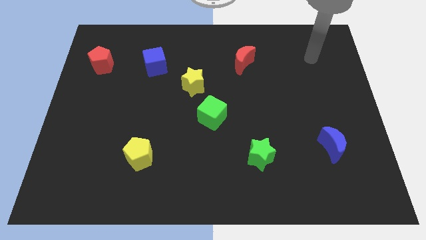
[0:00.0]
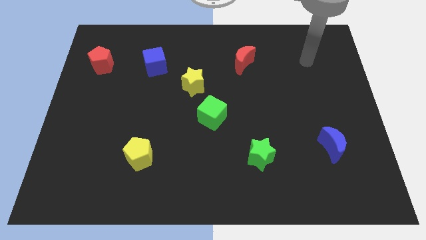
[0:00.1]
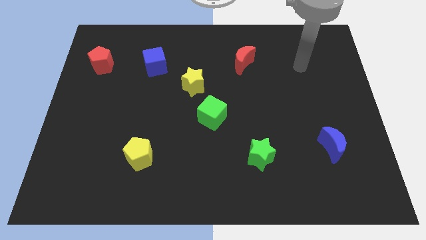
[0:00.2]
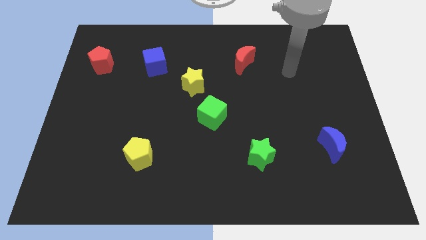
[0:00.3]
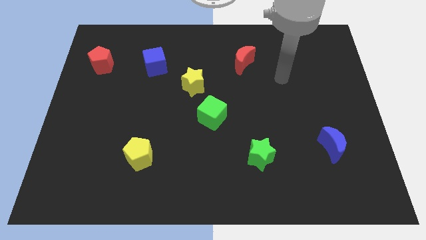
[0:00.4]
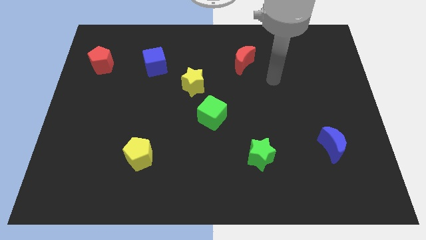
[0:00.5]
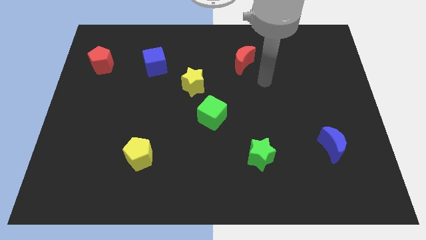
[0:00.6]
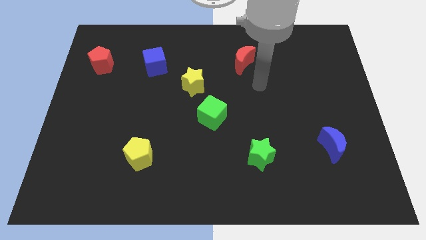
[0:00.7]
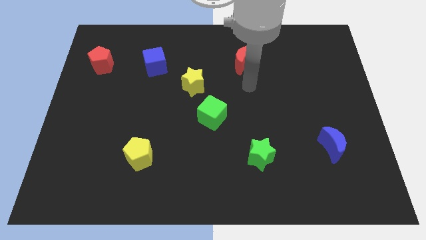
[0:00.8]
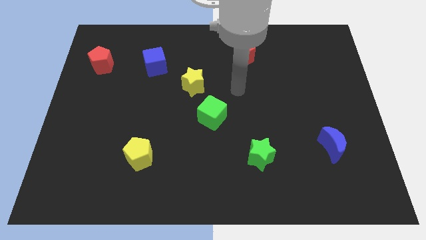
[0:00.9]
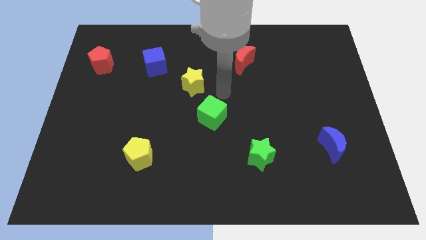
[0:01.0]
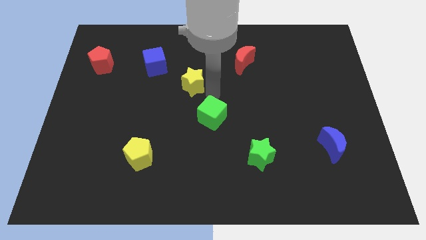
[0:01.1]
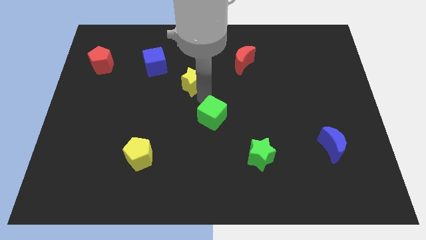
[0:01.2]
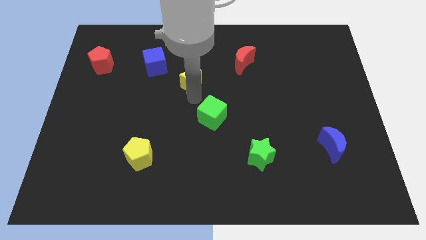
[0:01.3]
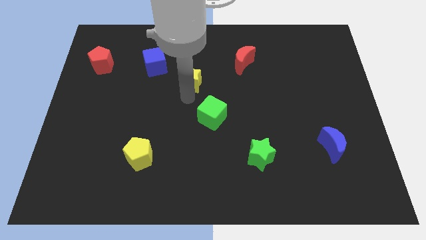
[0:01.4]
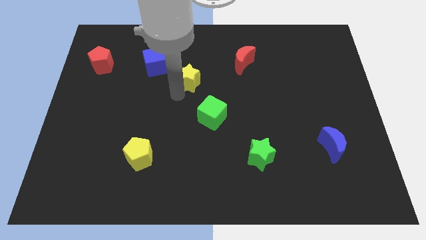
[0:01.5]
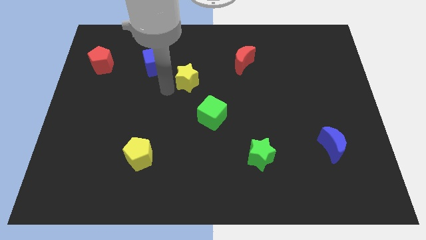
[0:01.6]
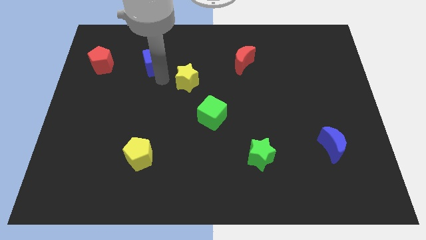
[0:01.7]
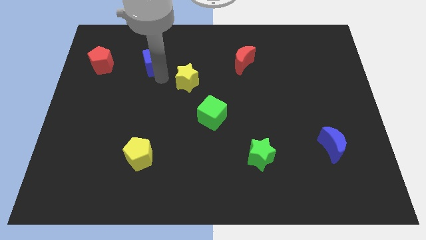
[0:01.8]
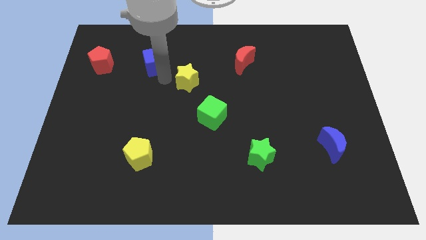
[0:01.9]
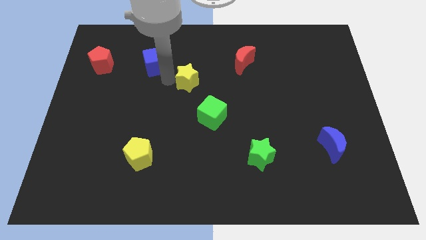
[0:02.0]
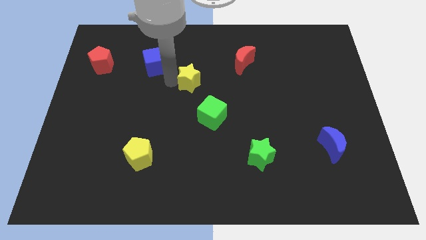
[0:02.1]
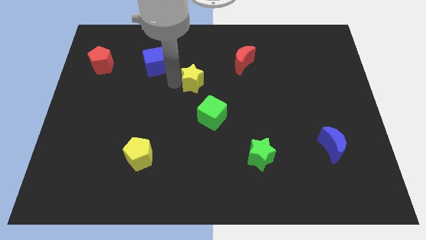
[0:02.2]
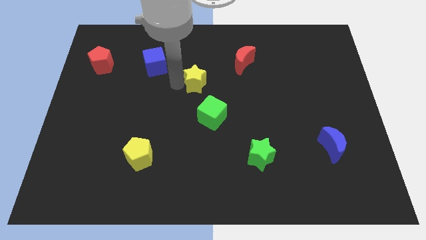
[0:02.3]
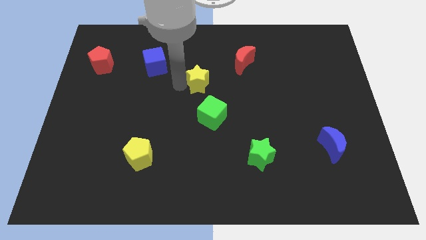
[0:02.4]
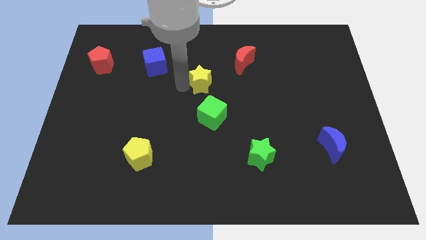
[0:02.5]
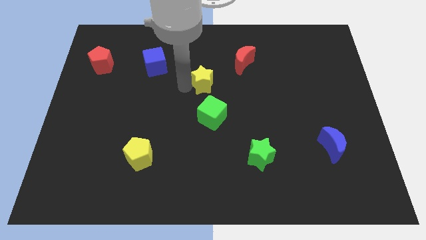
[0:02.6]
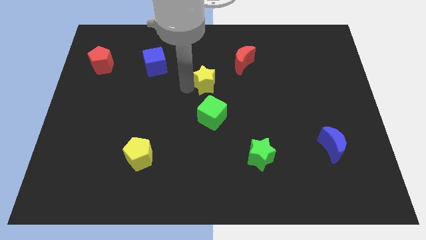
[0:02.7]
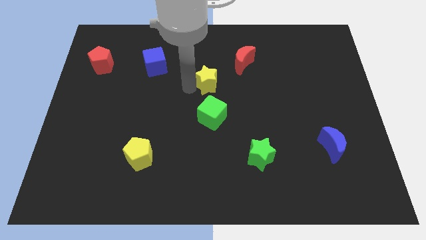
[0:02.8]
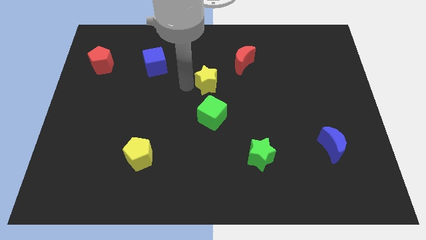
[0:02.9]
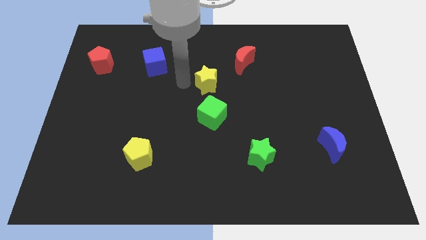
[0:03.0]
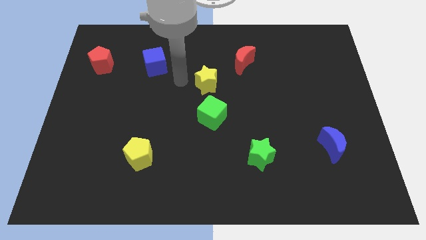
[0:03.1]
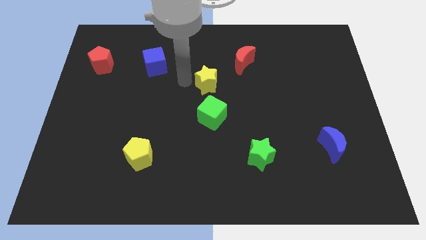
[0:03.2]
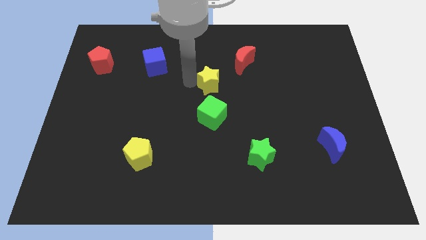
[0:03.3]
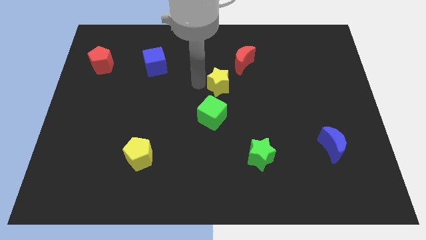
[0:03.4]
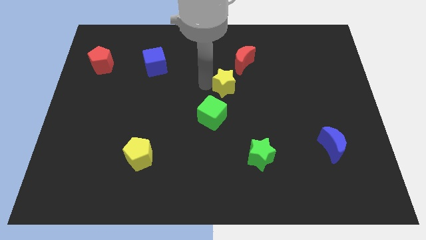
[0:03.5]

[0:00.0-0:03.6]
slide the yellow star a little right

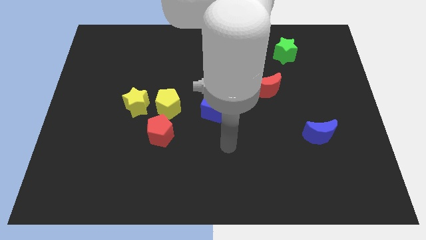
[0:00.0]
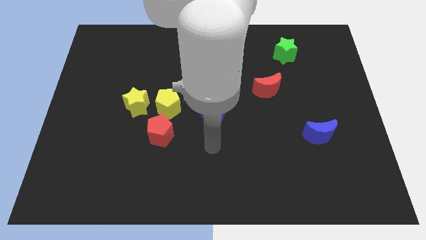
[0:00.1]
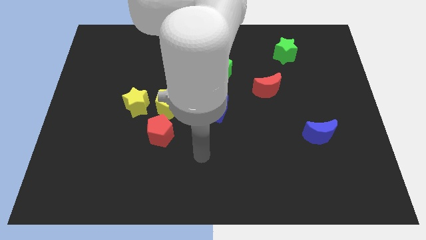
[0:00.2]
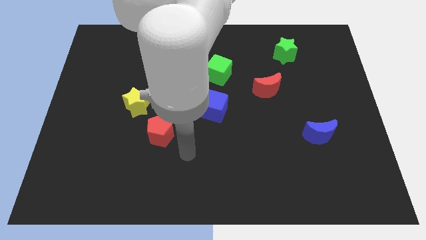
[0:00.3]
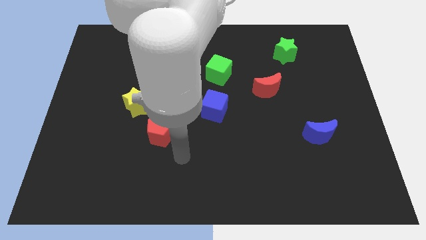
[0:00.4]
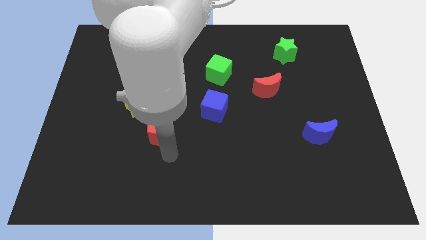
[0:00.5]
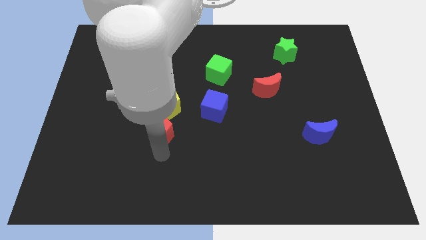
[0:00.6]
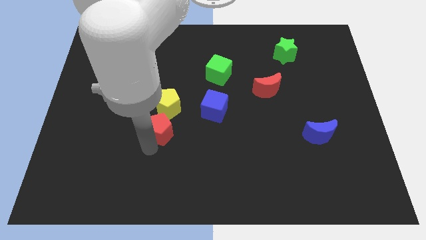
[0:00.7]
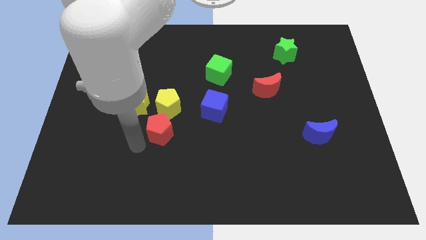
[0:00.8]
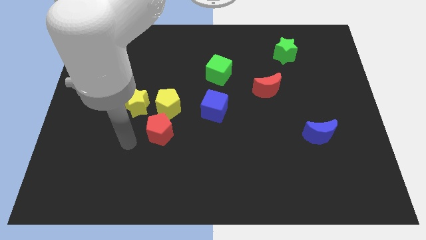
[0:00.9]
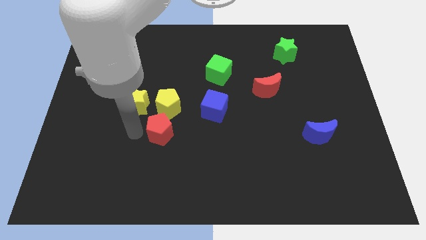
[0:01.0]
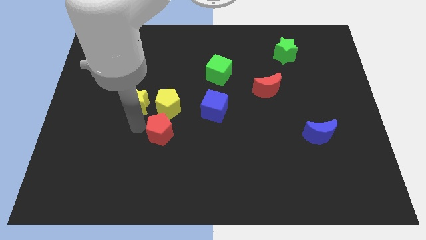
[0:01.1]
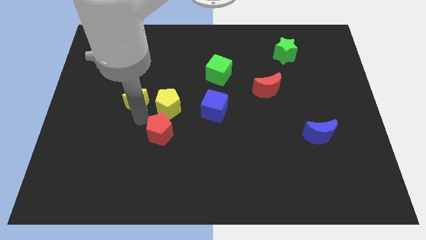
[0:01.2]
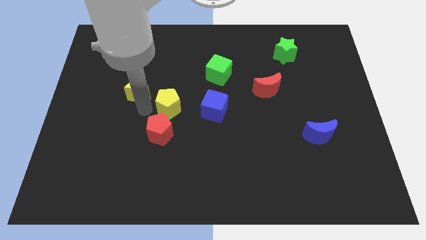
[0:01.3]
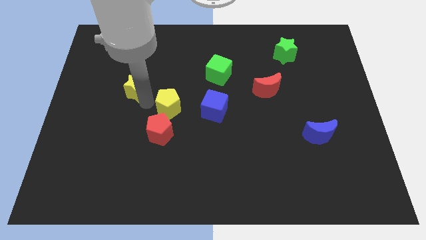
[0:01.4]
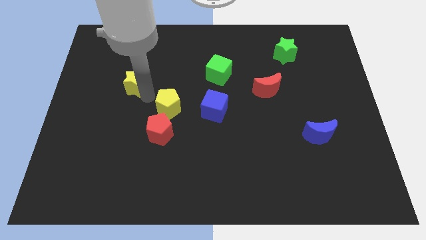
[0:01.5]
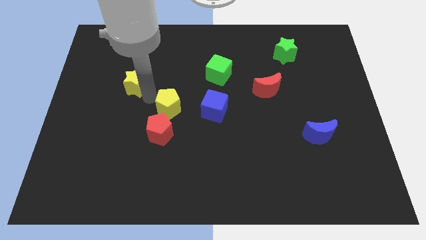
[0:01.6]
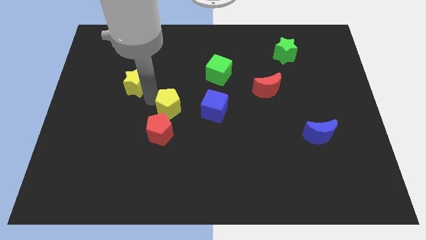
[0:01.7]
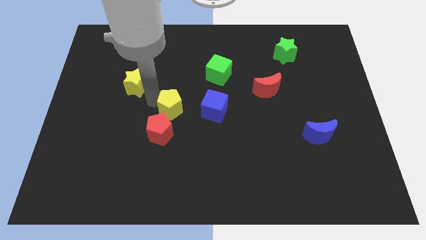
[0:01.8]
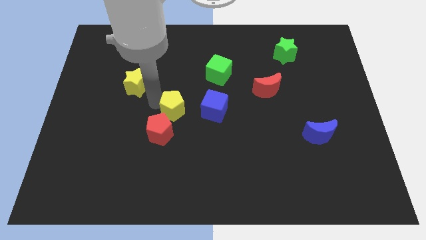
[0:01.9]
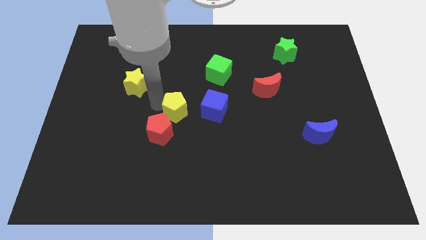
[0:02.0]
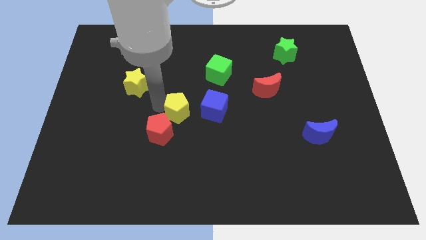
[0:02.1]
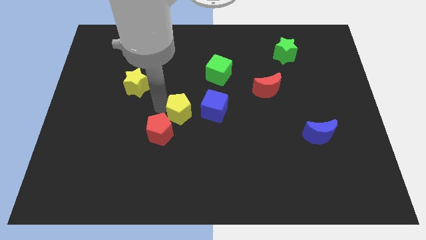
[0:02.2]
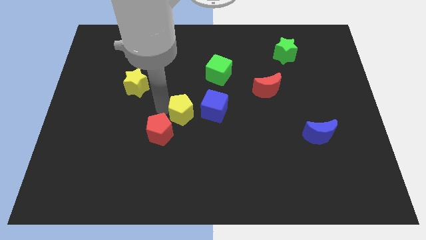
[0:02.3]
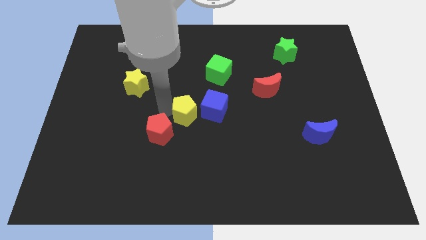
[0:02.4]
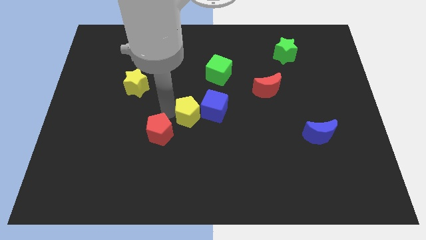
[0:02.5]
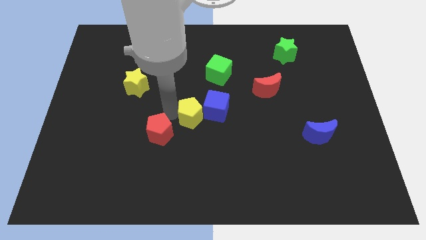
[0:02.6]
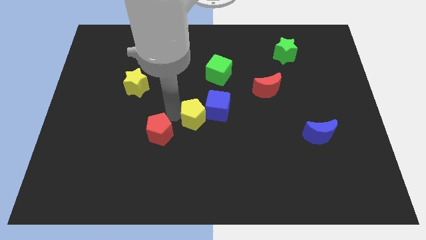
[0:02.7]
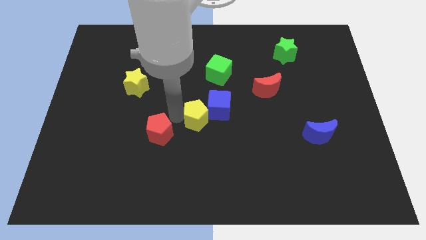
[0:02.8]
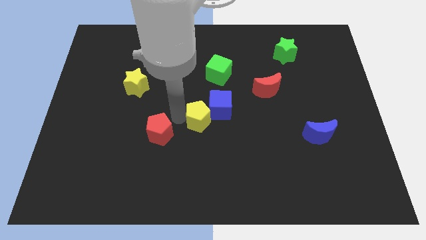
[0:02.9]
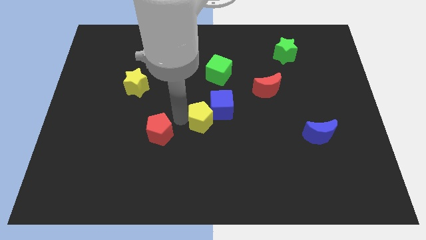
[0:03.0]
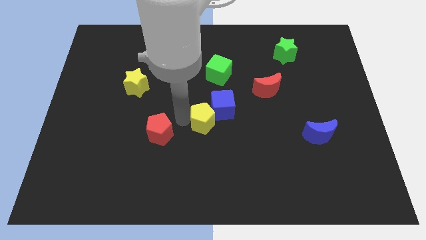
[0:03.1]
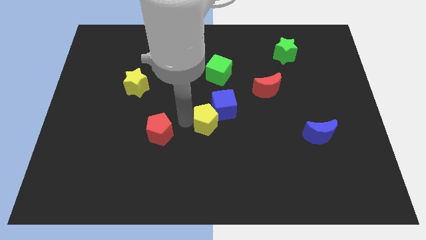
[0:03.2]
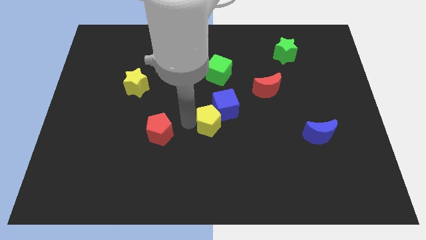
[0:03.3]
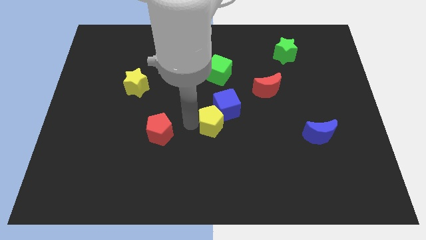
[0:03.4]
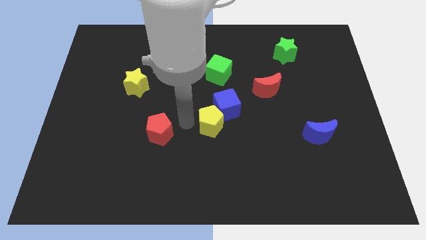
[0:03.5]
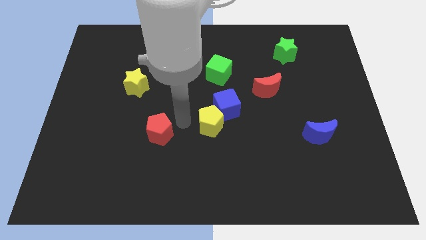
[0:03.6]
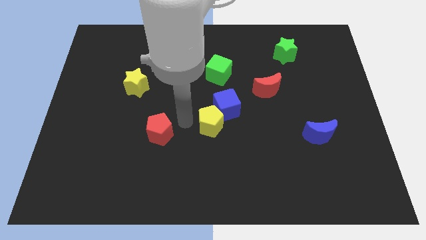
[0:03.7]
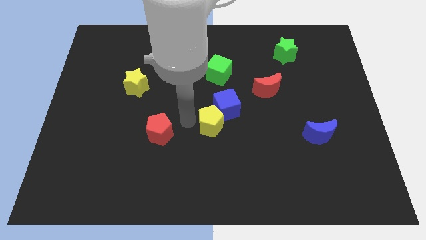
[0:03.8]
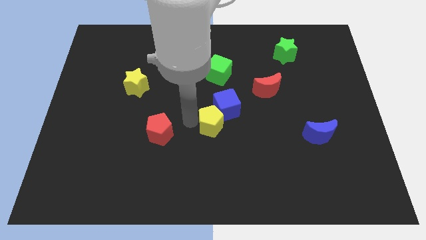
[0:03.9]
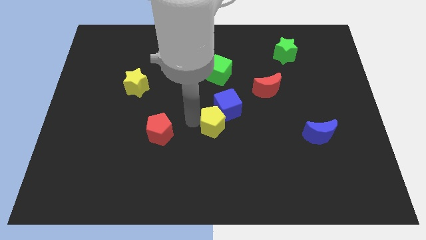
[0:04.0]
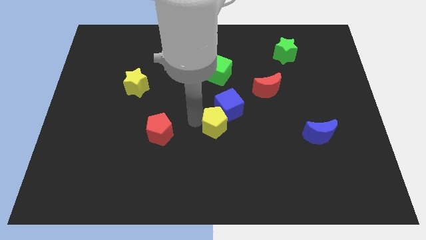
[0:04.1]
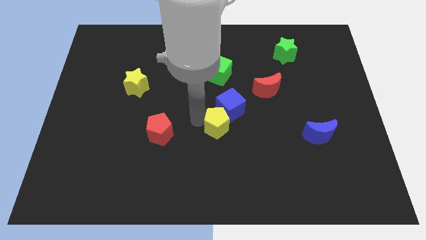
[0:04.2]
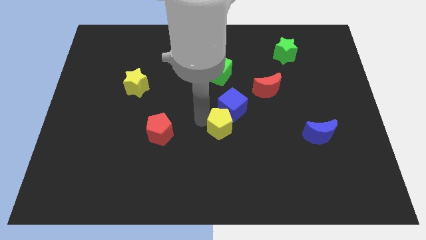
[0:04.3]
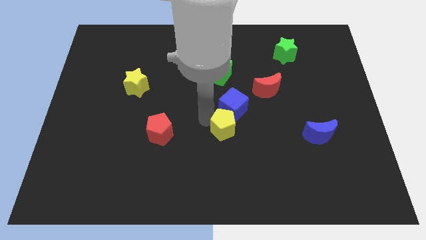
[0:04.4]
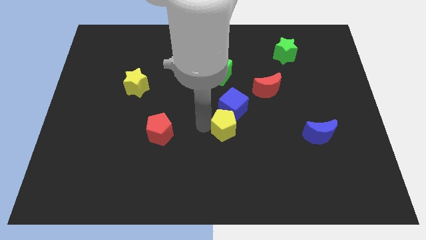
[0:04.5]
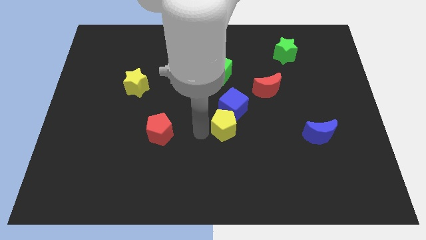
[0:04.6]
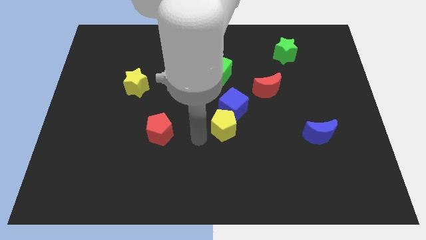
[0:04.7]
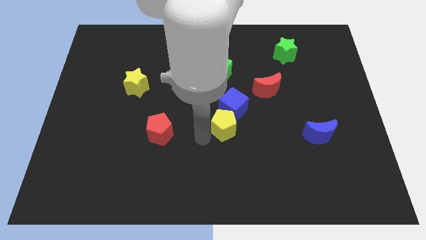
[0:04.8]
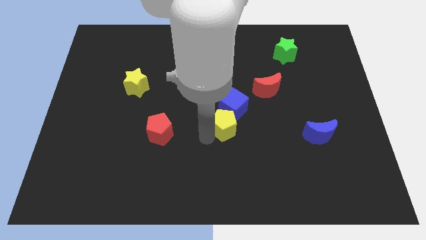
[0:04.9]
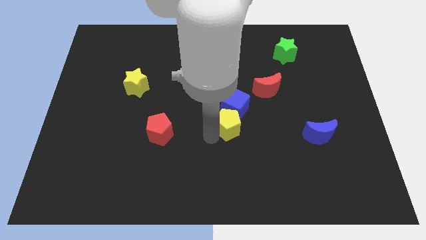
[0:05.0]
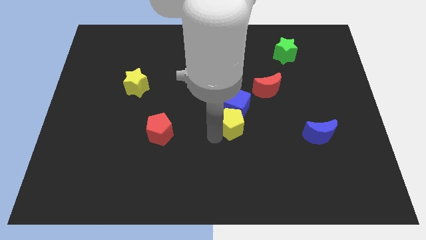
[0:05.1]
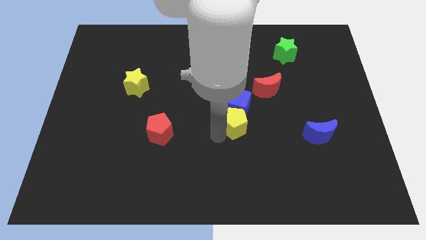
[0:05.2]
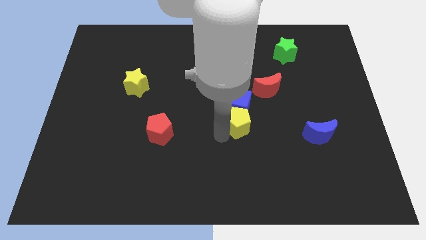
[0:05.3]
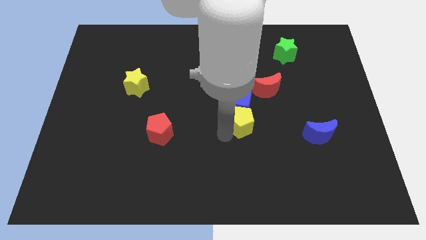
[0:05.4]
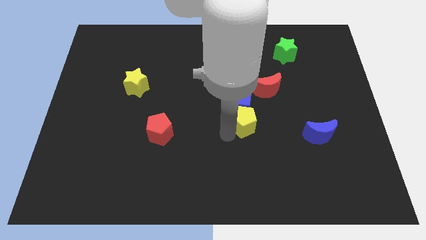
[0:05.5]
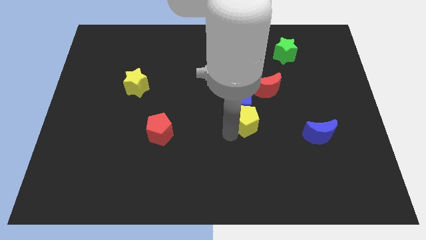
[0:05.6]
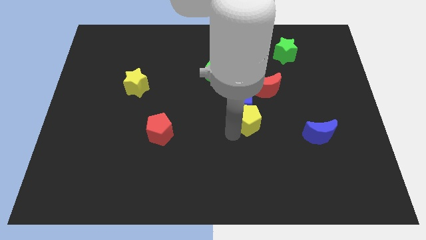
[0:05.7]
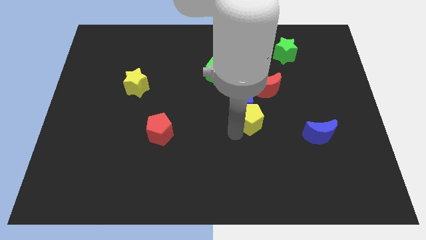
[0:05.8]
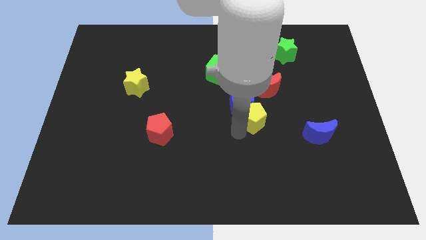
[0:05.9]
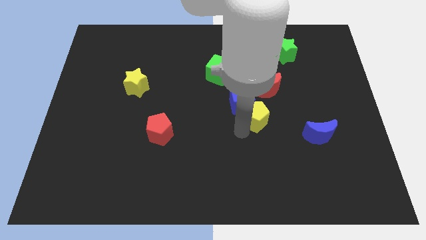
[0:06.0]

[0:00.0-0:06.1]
push the yellow pentagon to the right
